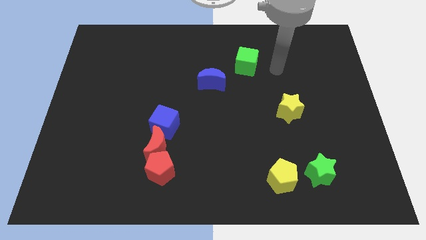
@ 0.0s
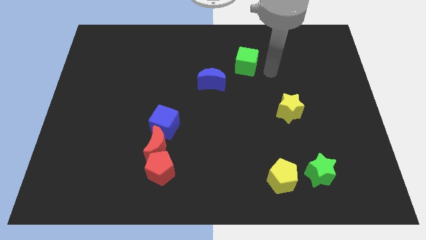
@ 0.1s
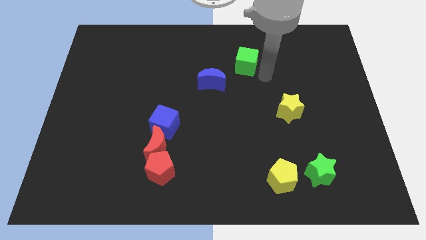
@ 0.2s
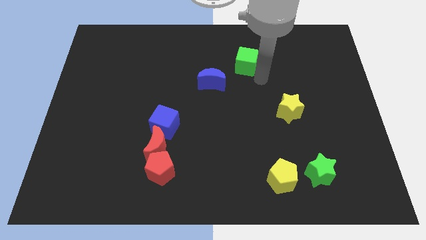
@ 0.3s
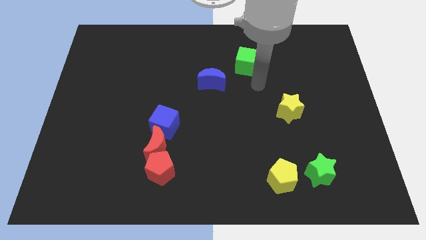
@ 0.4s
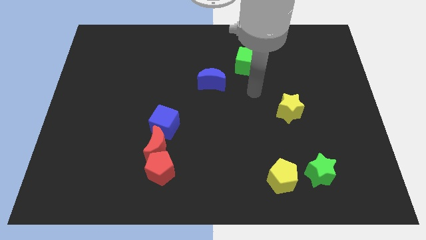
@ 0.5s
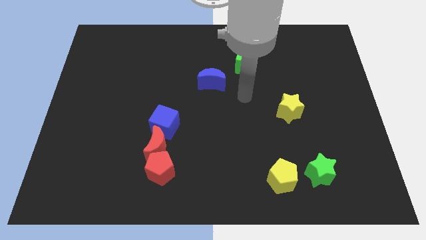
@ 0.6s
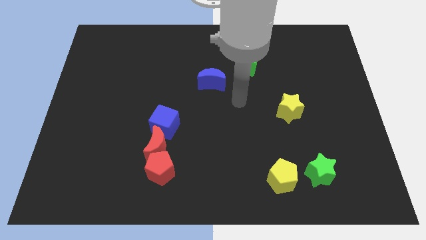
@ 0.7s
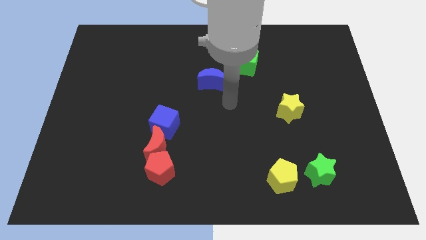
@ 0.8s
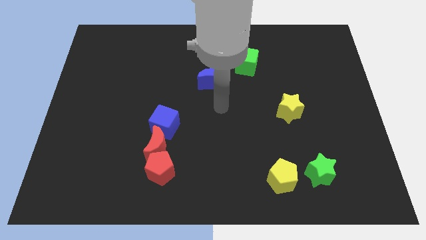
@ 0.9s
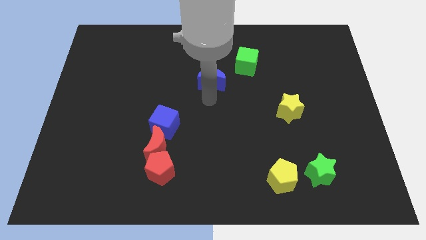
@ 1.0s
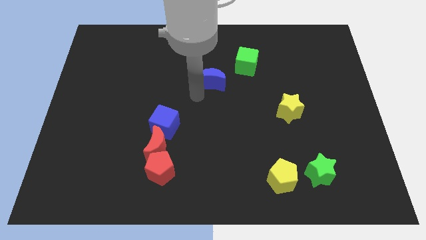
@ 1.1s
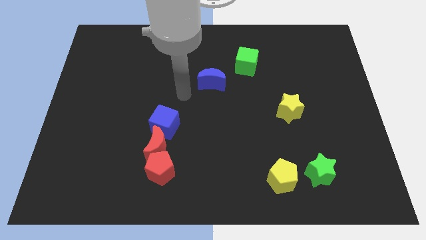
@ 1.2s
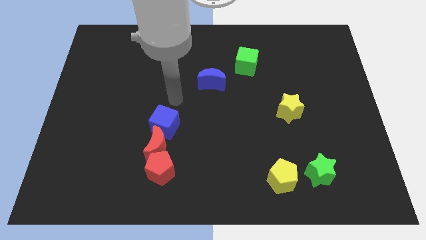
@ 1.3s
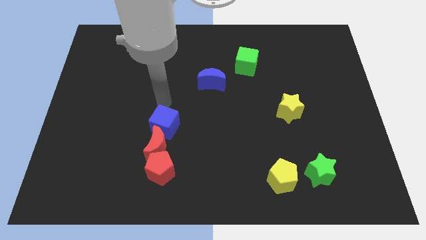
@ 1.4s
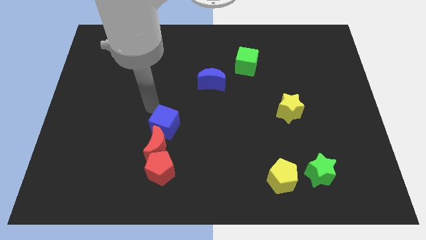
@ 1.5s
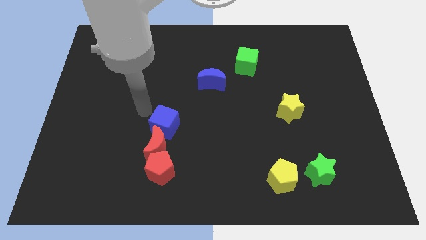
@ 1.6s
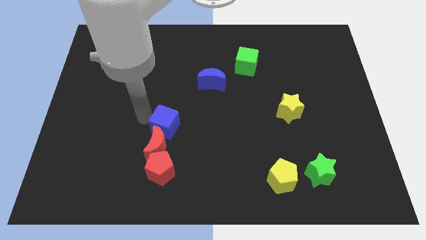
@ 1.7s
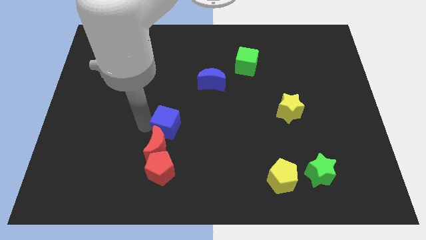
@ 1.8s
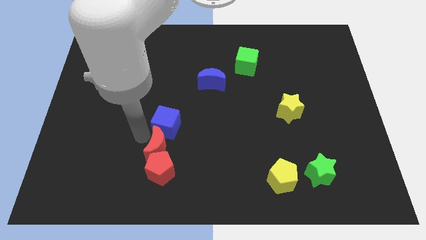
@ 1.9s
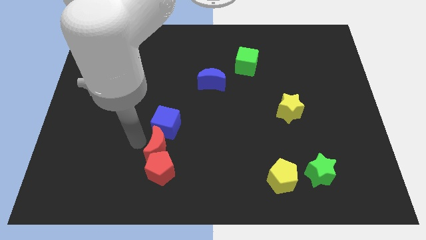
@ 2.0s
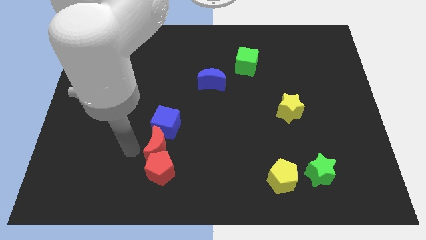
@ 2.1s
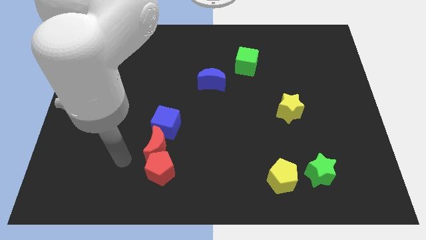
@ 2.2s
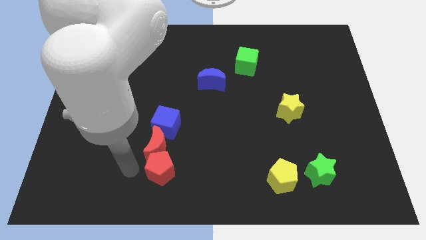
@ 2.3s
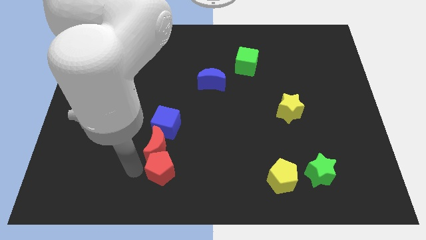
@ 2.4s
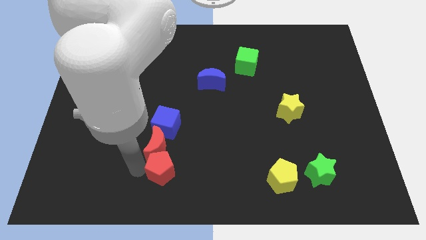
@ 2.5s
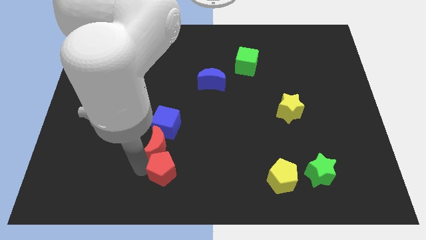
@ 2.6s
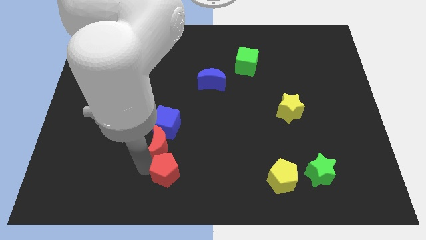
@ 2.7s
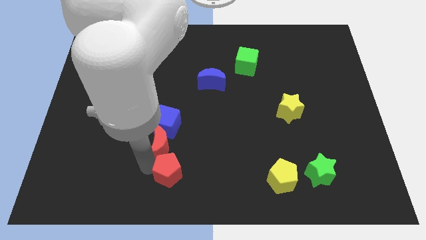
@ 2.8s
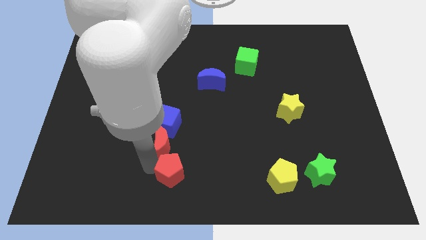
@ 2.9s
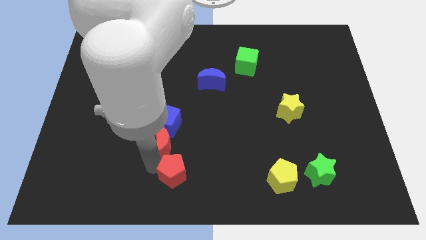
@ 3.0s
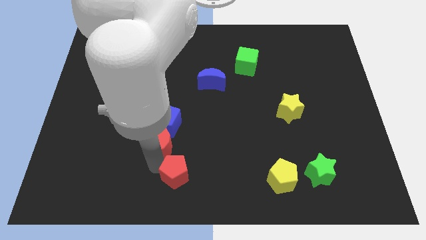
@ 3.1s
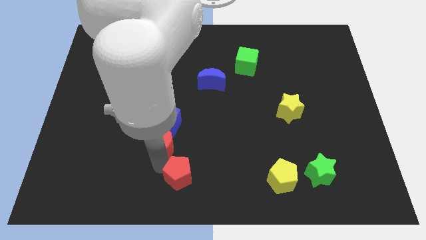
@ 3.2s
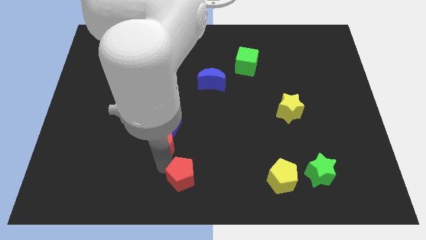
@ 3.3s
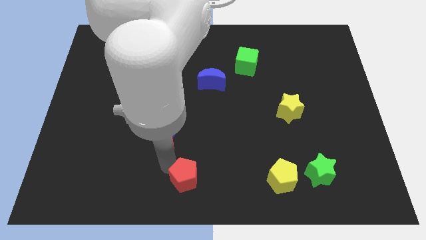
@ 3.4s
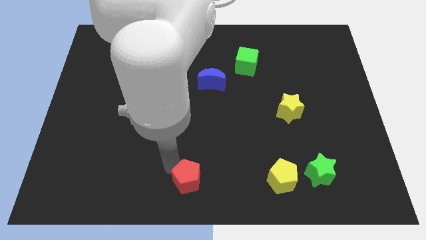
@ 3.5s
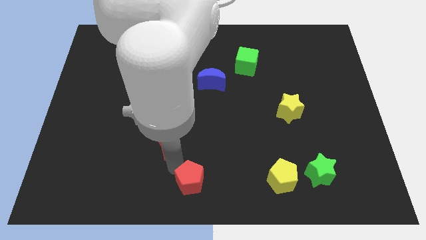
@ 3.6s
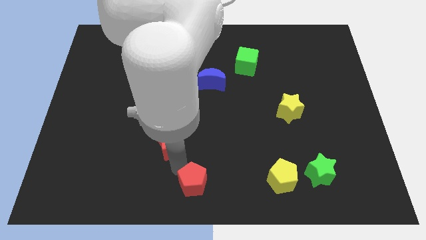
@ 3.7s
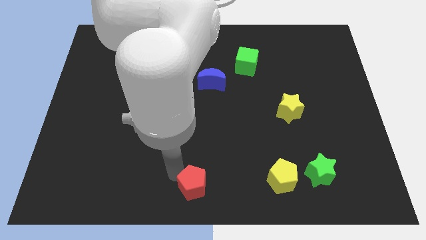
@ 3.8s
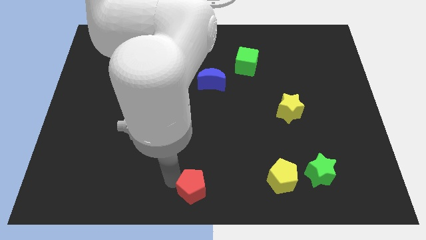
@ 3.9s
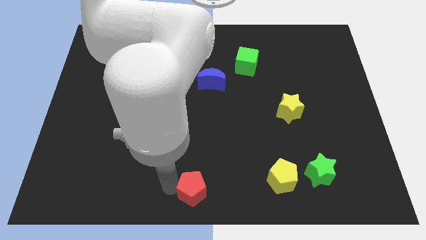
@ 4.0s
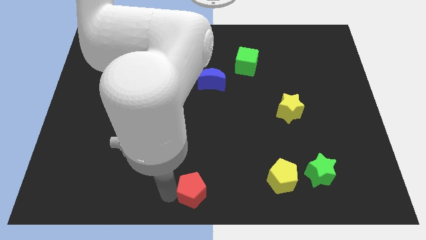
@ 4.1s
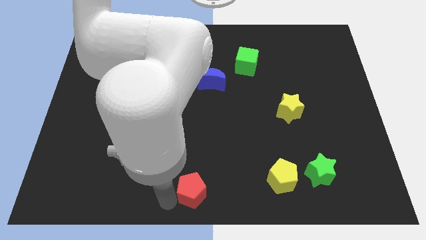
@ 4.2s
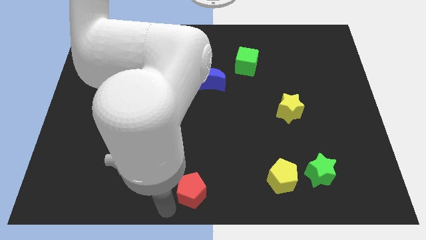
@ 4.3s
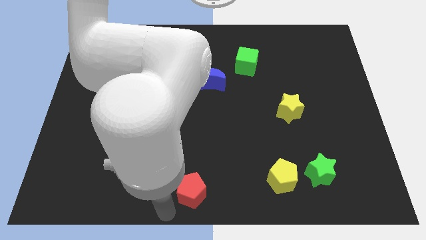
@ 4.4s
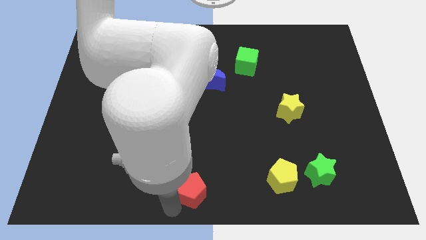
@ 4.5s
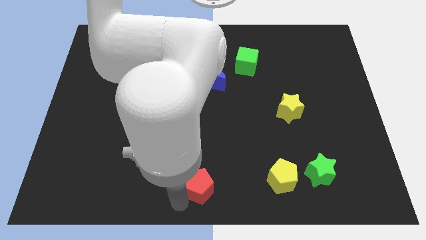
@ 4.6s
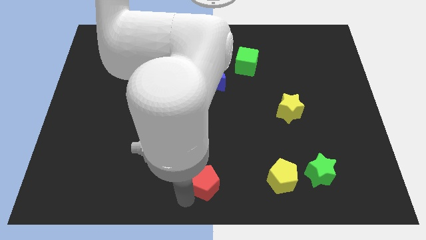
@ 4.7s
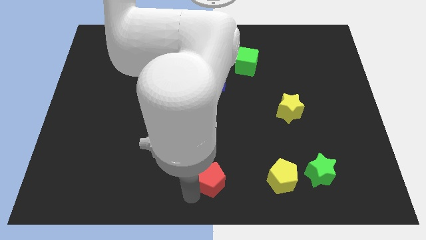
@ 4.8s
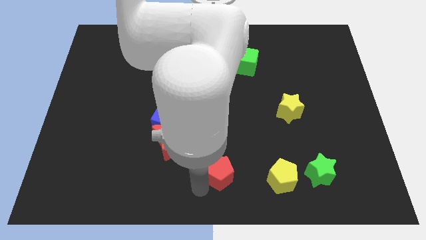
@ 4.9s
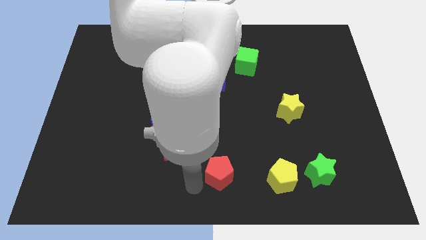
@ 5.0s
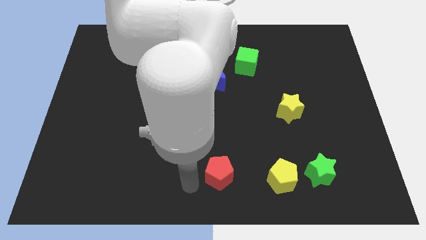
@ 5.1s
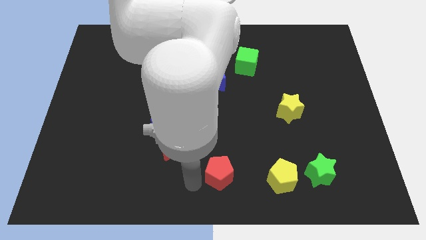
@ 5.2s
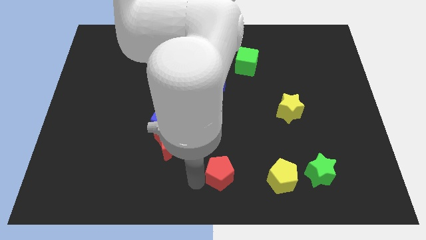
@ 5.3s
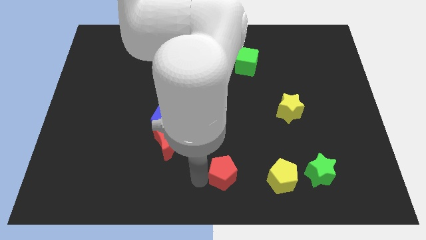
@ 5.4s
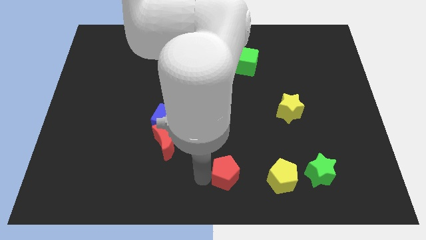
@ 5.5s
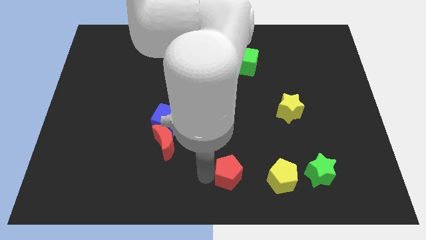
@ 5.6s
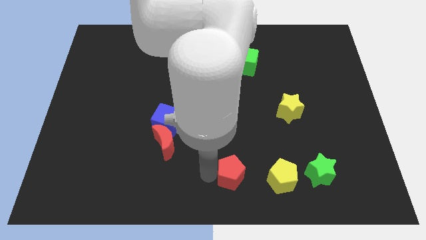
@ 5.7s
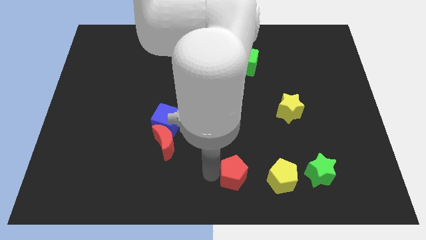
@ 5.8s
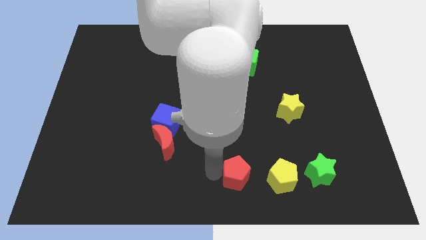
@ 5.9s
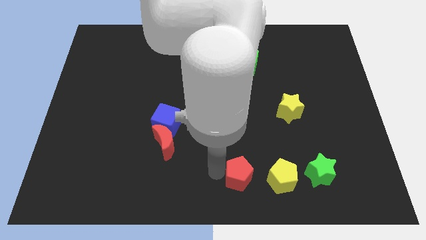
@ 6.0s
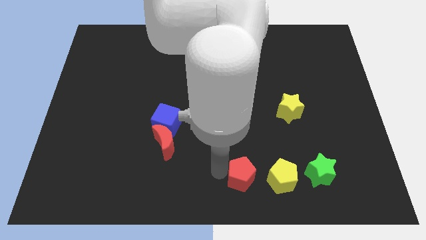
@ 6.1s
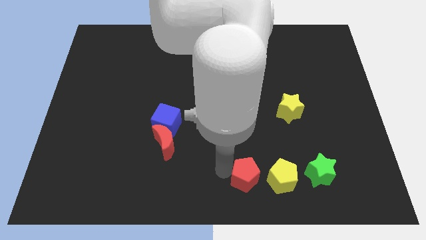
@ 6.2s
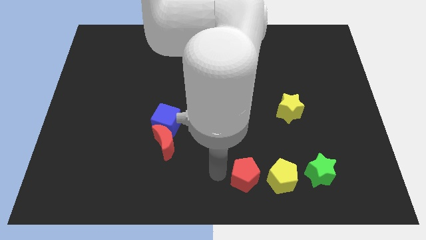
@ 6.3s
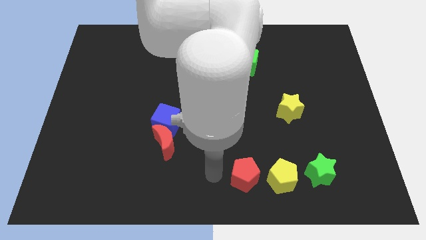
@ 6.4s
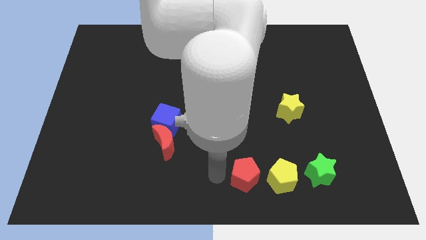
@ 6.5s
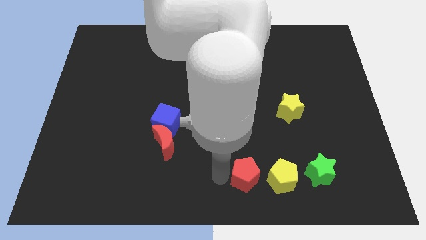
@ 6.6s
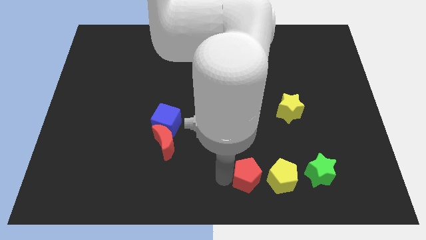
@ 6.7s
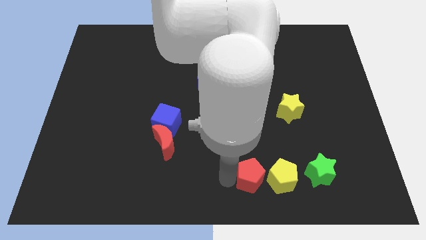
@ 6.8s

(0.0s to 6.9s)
move the red pentagon to the yellow pentagon

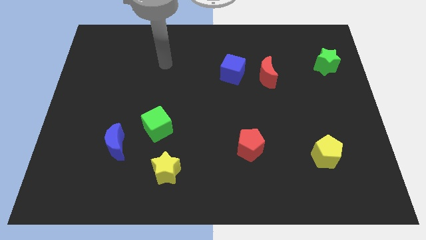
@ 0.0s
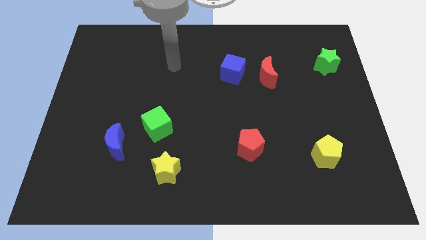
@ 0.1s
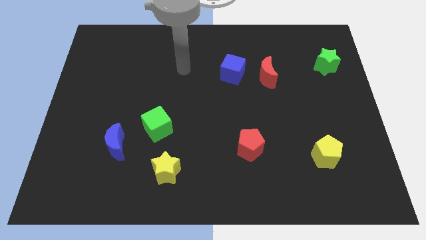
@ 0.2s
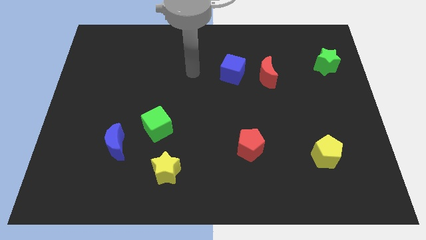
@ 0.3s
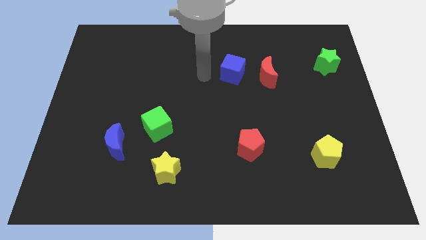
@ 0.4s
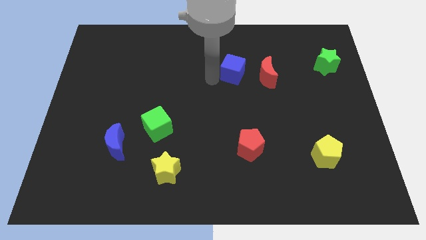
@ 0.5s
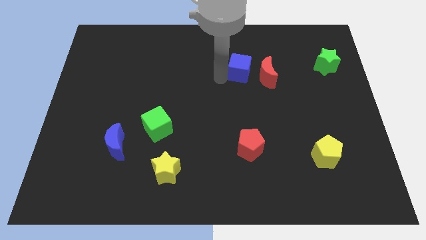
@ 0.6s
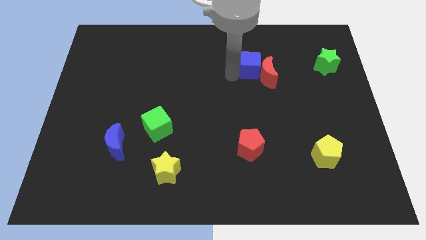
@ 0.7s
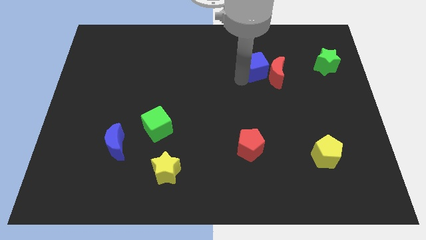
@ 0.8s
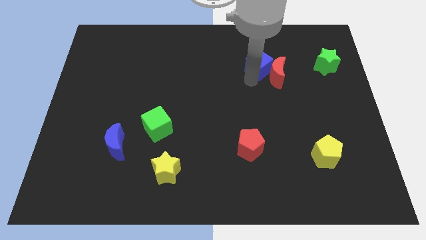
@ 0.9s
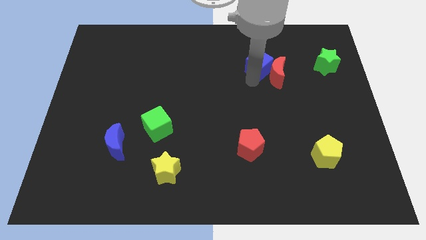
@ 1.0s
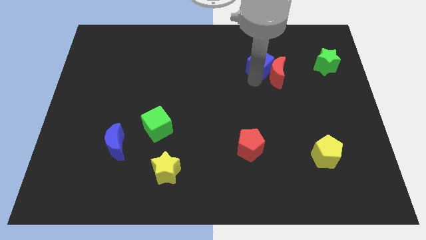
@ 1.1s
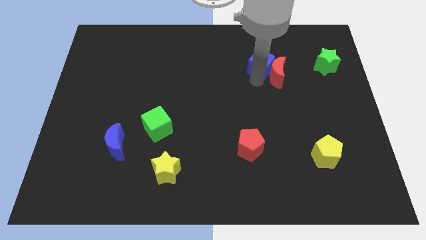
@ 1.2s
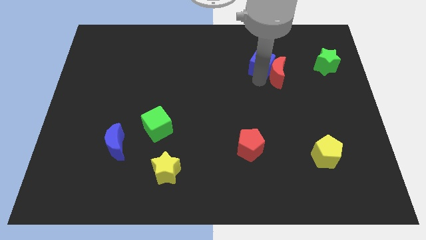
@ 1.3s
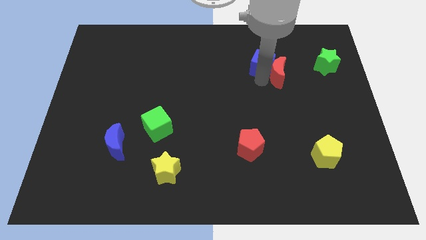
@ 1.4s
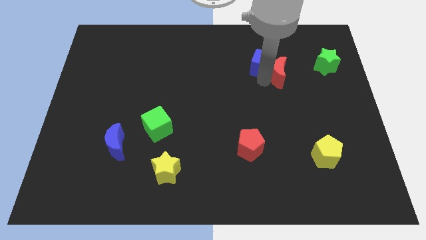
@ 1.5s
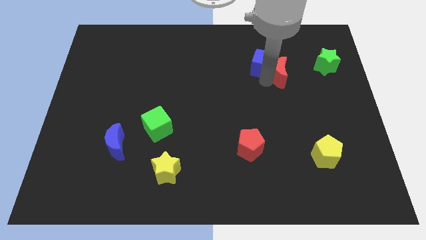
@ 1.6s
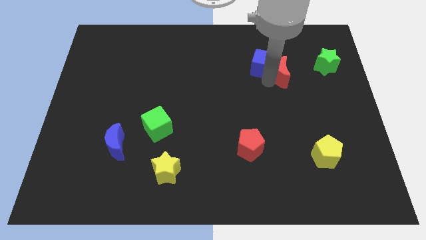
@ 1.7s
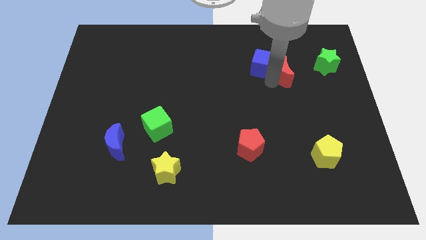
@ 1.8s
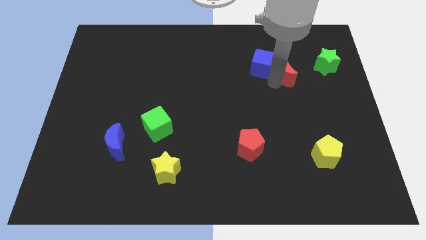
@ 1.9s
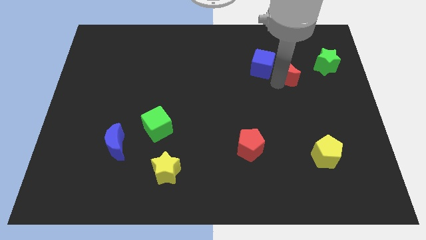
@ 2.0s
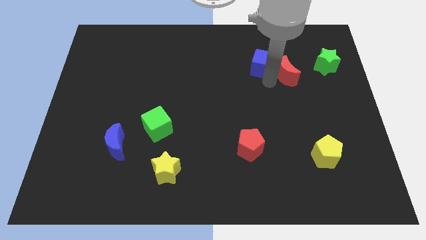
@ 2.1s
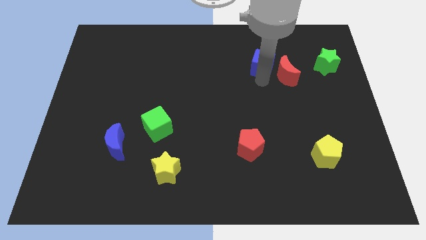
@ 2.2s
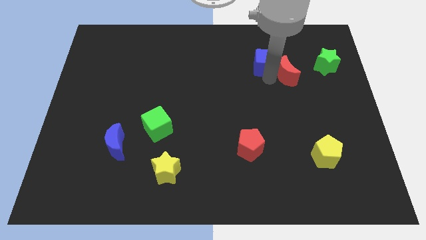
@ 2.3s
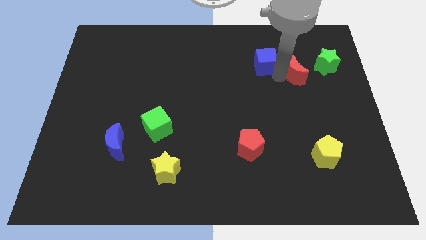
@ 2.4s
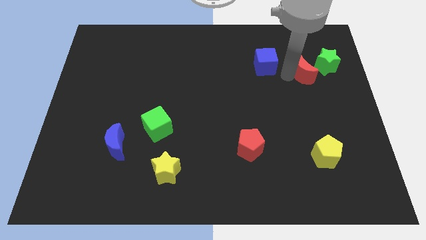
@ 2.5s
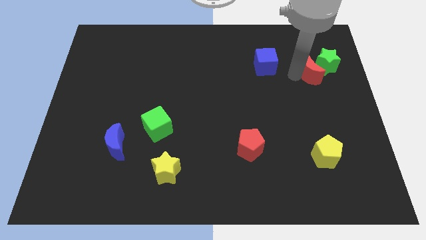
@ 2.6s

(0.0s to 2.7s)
push the red moon to the green star
